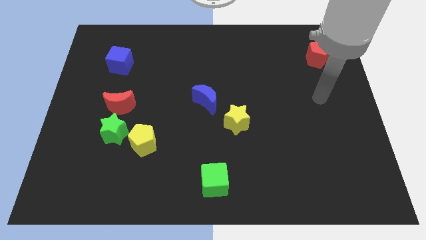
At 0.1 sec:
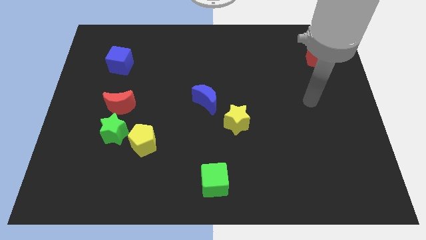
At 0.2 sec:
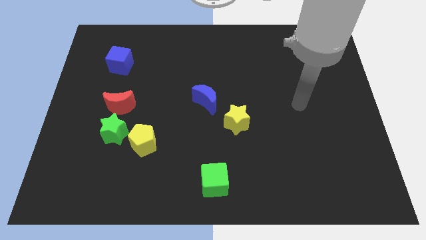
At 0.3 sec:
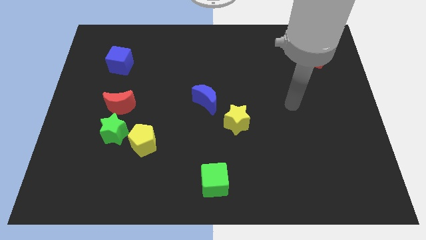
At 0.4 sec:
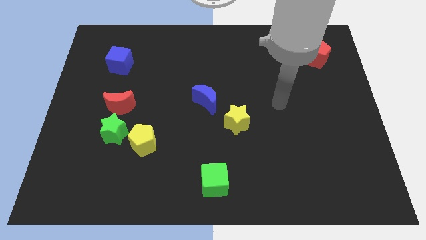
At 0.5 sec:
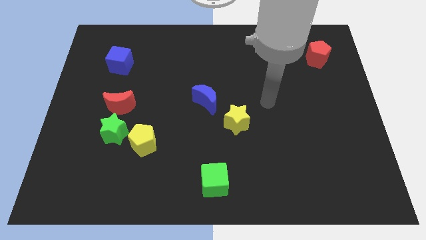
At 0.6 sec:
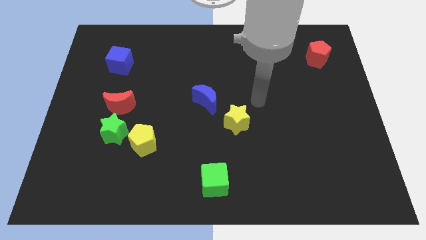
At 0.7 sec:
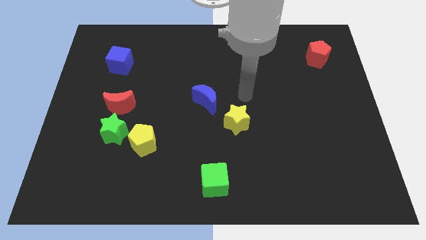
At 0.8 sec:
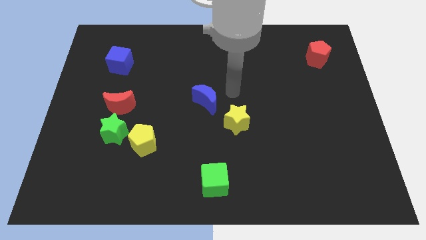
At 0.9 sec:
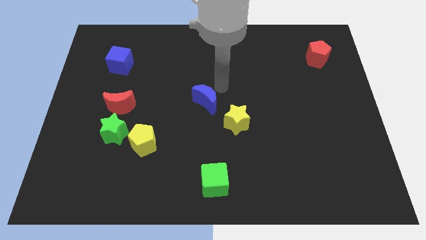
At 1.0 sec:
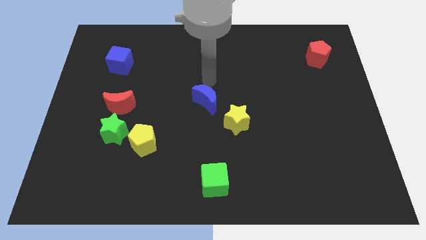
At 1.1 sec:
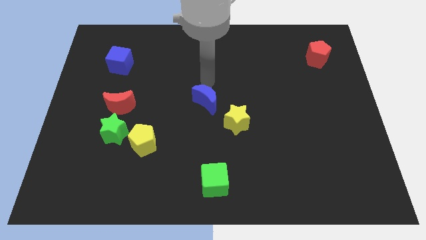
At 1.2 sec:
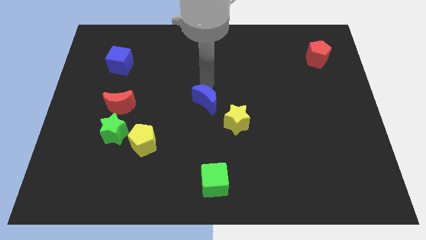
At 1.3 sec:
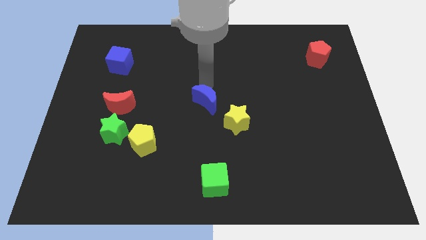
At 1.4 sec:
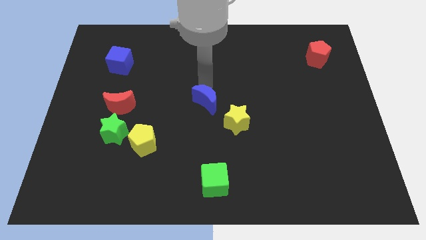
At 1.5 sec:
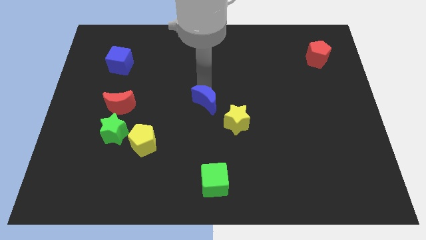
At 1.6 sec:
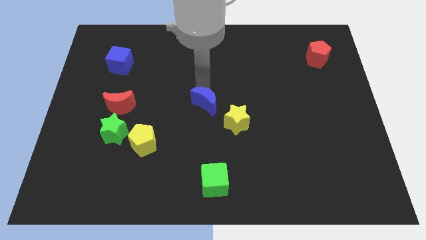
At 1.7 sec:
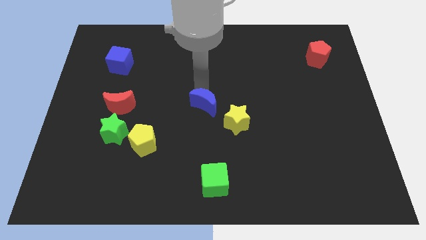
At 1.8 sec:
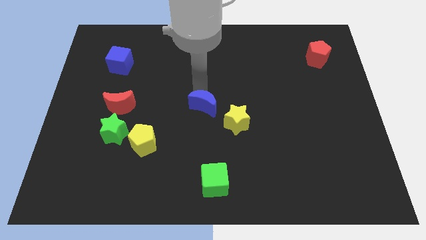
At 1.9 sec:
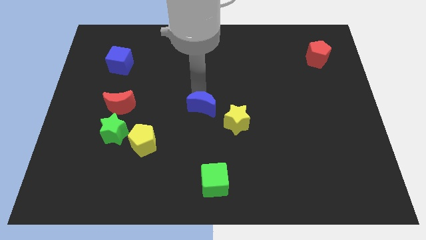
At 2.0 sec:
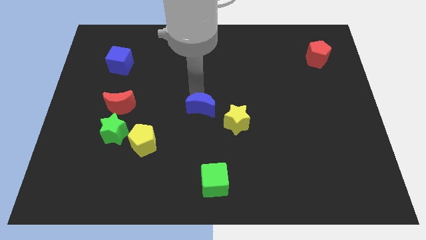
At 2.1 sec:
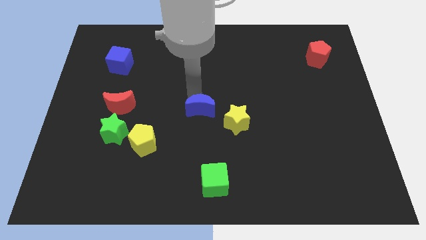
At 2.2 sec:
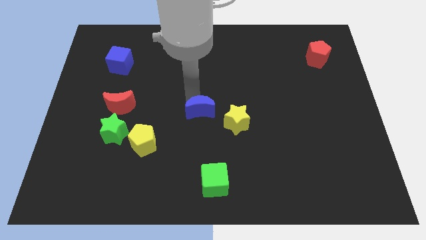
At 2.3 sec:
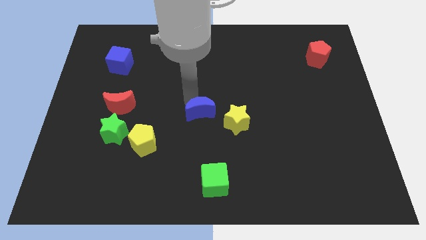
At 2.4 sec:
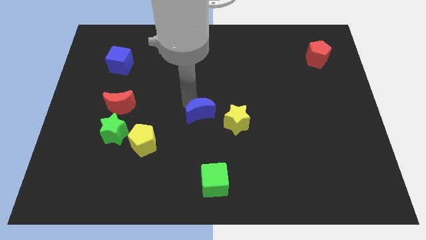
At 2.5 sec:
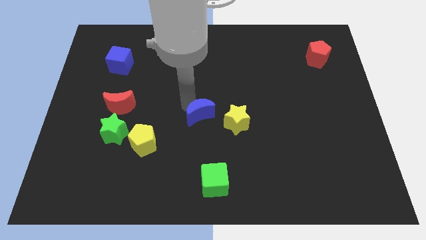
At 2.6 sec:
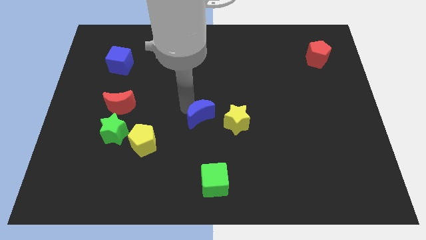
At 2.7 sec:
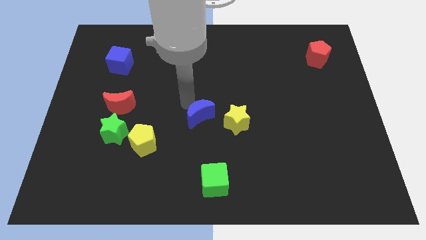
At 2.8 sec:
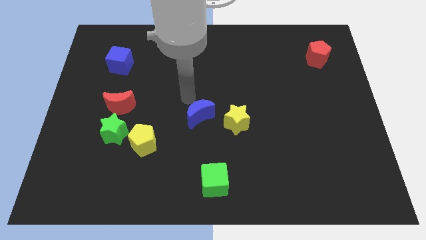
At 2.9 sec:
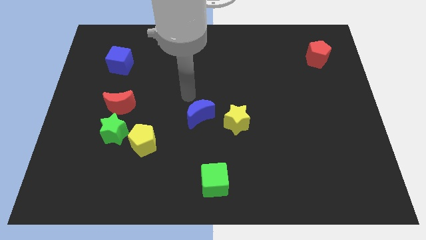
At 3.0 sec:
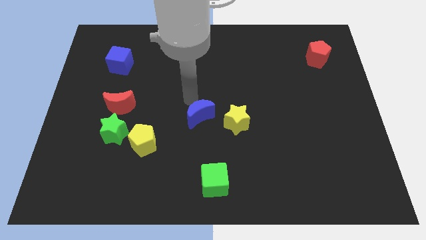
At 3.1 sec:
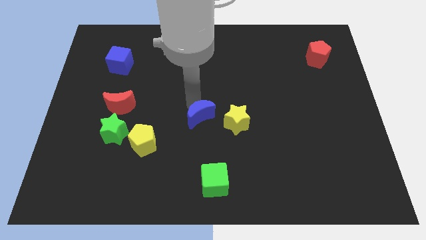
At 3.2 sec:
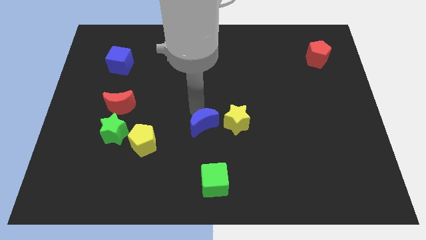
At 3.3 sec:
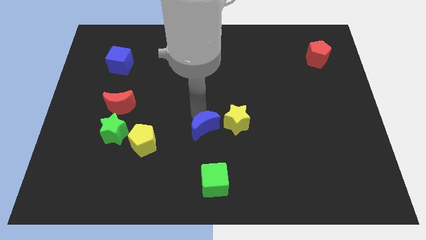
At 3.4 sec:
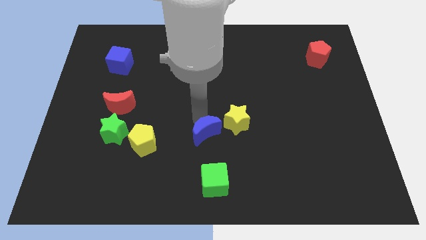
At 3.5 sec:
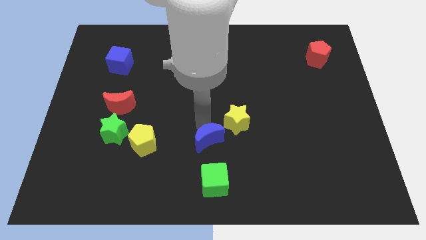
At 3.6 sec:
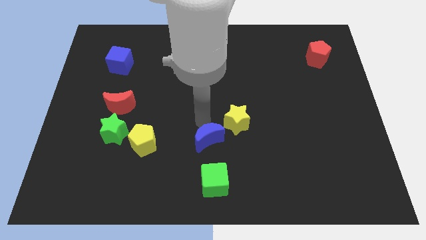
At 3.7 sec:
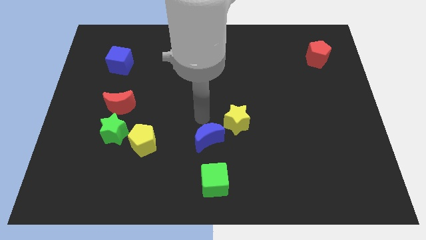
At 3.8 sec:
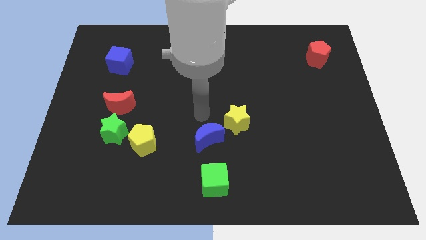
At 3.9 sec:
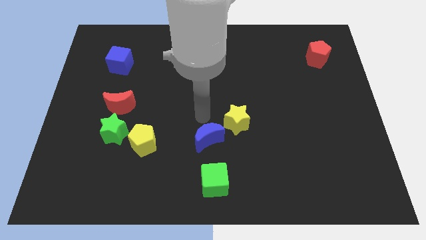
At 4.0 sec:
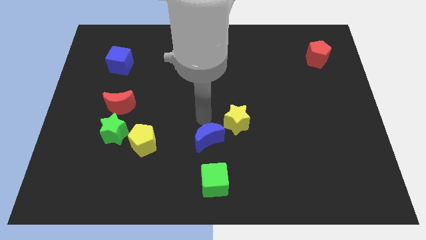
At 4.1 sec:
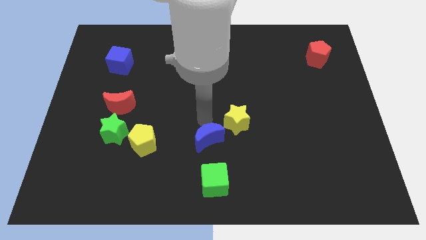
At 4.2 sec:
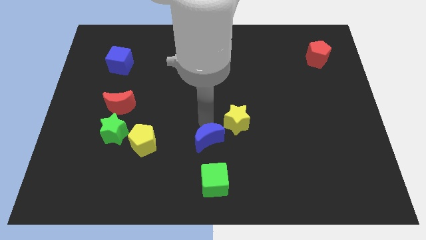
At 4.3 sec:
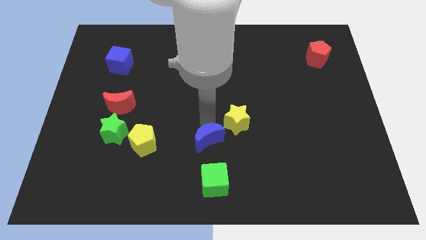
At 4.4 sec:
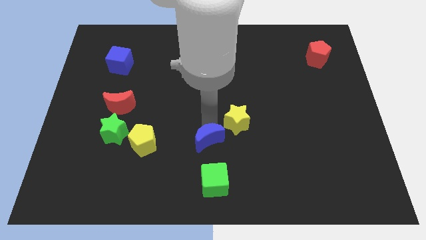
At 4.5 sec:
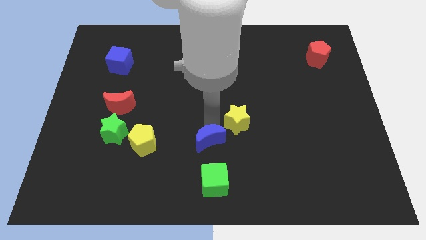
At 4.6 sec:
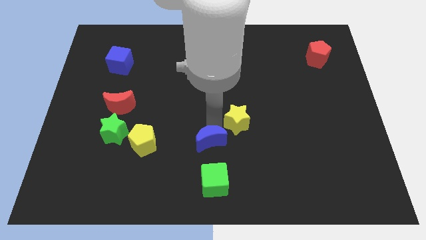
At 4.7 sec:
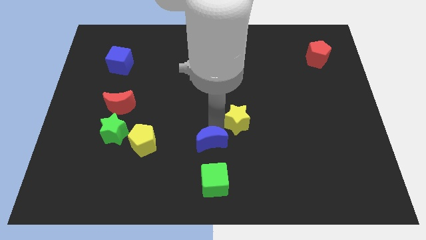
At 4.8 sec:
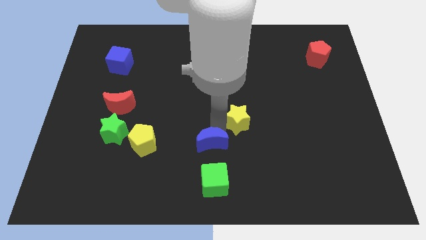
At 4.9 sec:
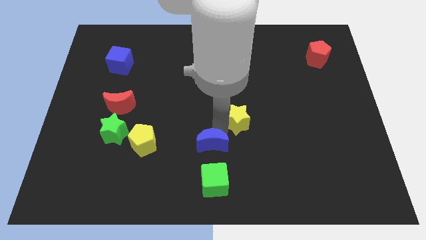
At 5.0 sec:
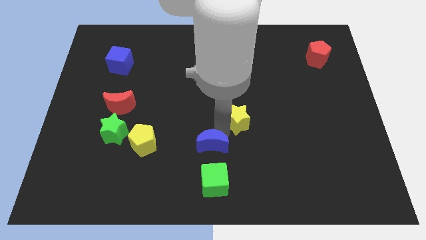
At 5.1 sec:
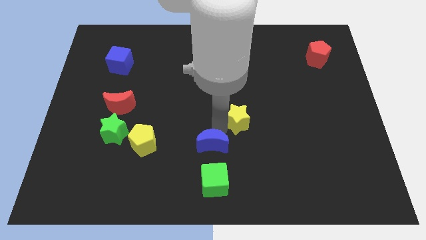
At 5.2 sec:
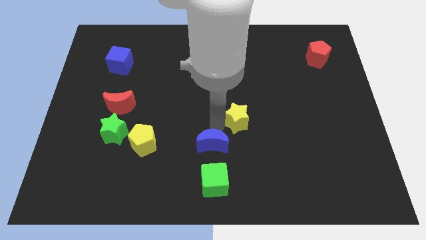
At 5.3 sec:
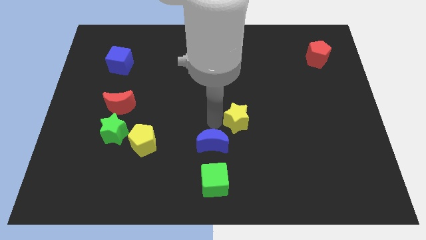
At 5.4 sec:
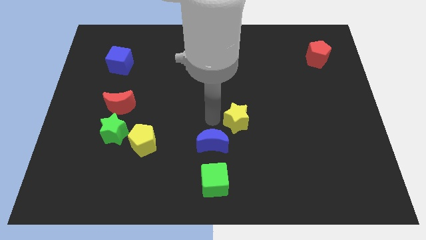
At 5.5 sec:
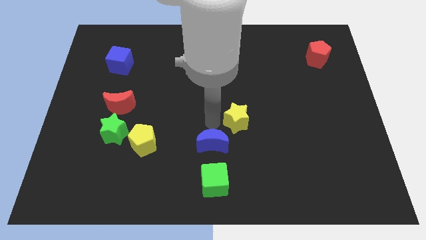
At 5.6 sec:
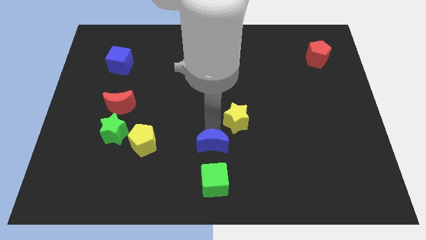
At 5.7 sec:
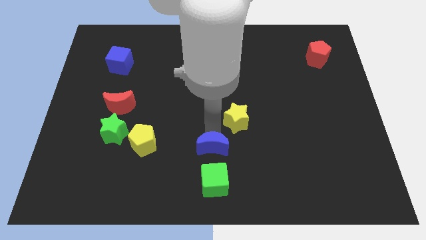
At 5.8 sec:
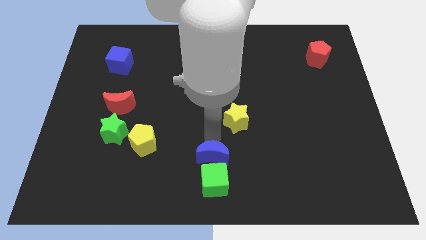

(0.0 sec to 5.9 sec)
slide the blue moon close to the green cube

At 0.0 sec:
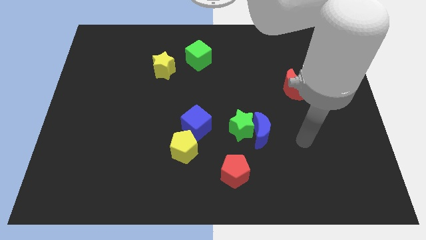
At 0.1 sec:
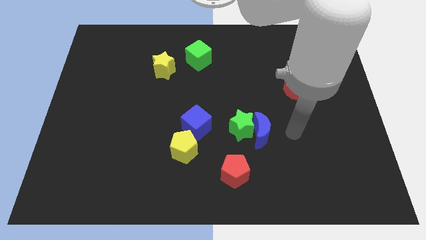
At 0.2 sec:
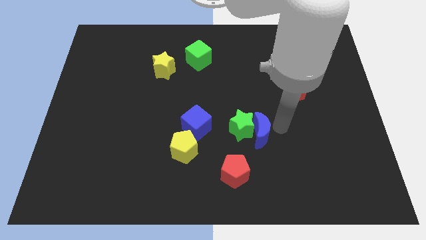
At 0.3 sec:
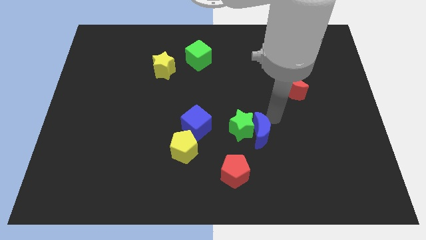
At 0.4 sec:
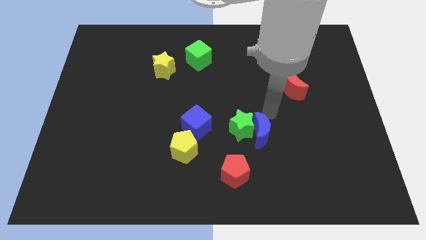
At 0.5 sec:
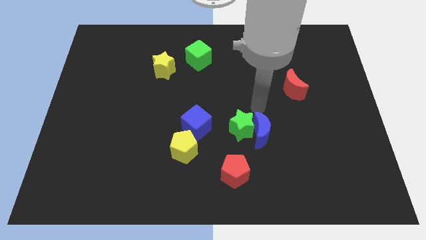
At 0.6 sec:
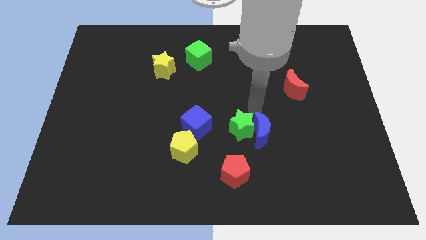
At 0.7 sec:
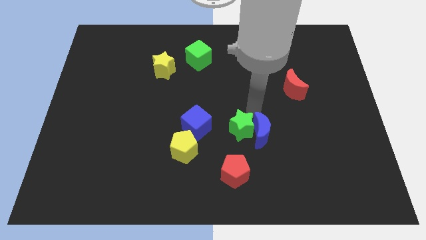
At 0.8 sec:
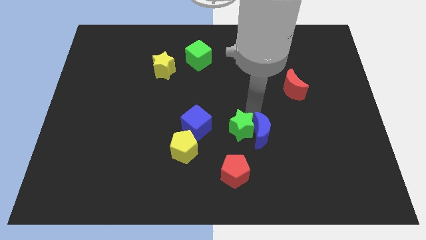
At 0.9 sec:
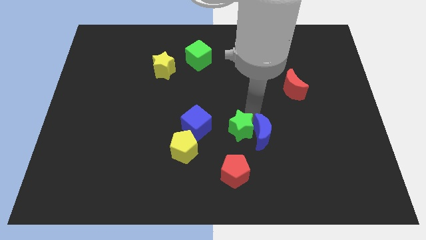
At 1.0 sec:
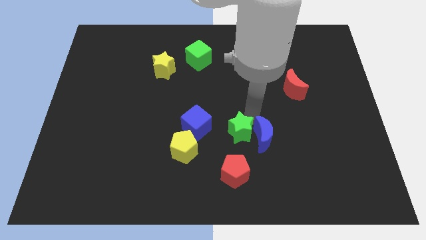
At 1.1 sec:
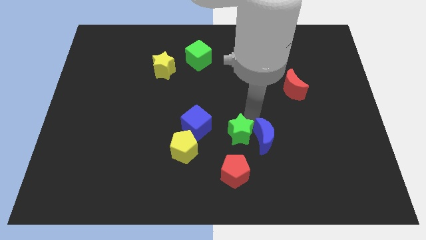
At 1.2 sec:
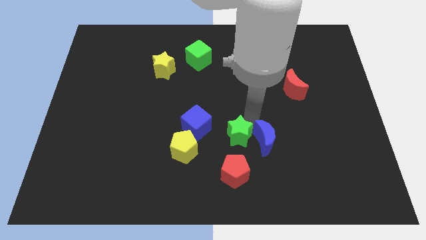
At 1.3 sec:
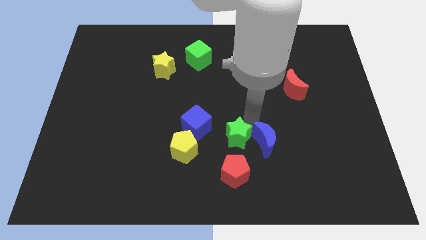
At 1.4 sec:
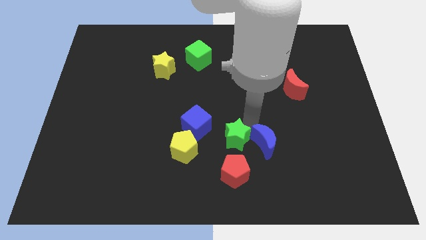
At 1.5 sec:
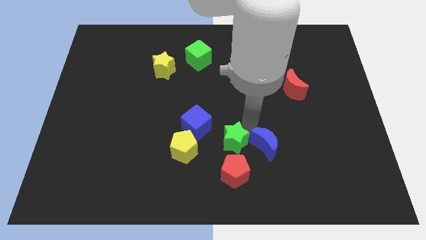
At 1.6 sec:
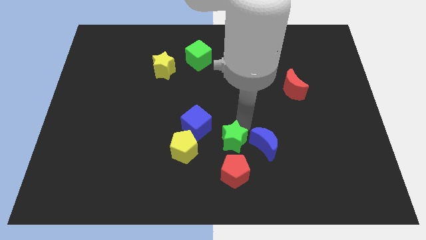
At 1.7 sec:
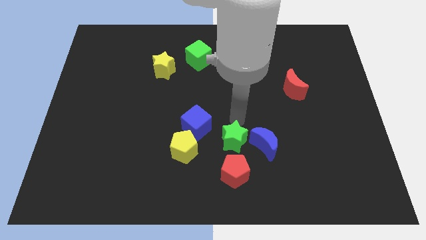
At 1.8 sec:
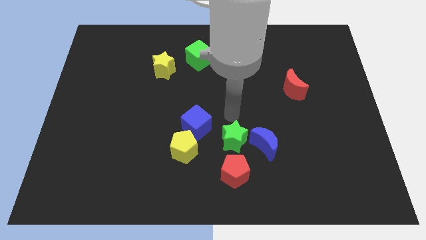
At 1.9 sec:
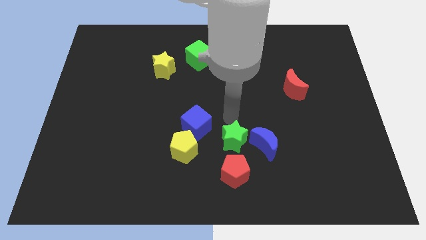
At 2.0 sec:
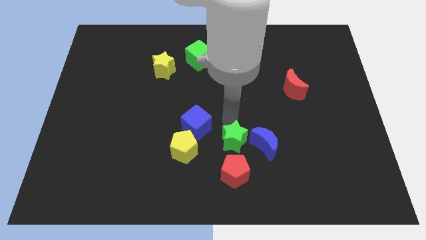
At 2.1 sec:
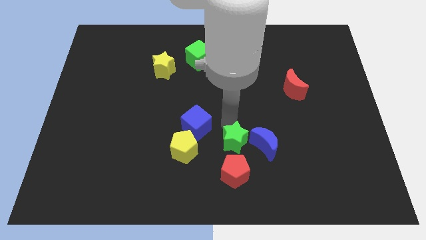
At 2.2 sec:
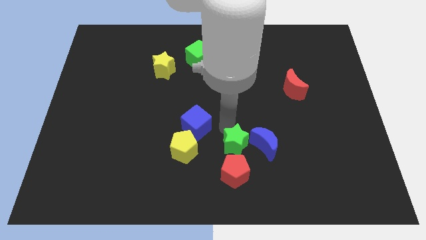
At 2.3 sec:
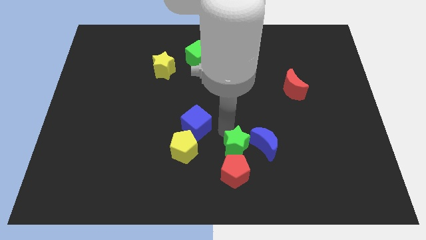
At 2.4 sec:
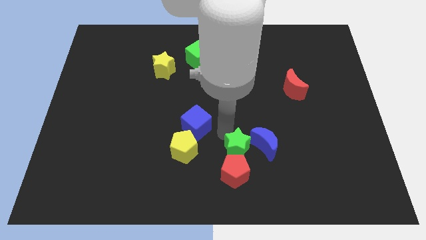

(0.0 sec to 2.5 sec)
push the green star to the red pentagon
